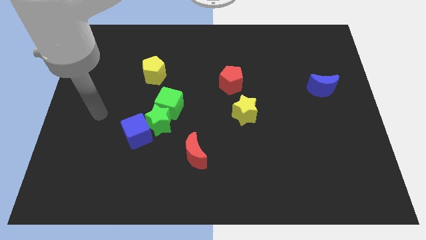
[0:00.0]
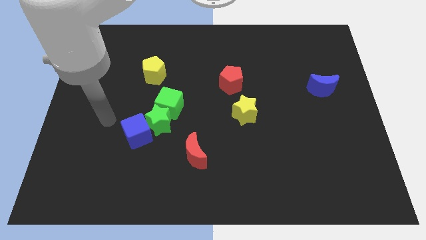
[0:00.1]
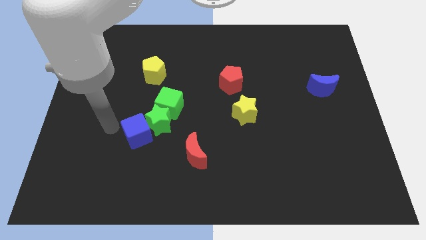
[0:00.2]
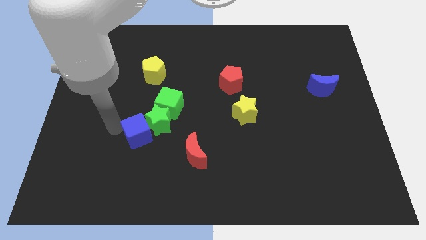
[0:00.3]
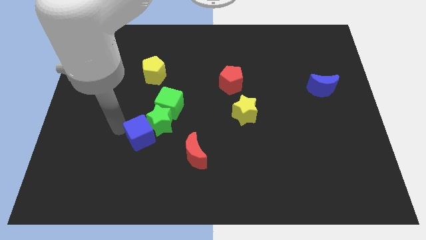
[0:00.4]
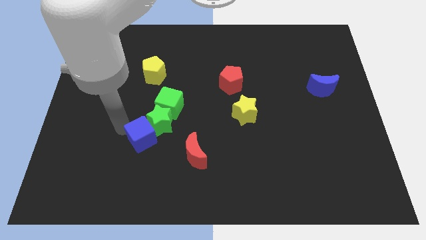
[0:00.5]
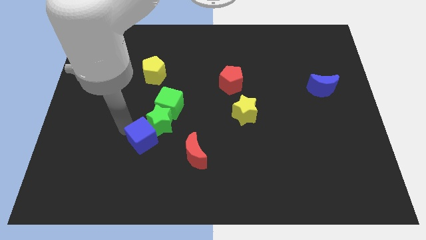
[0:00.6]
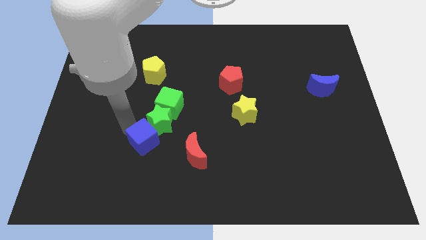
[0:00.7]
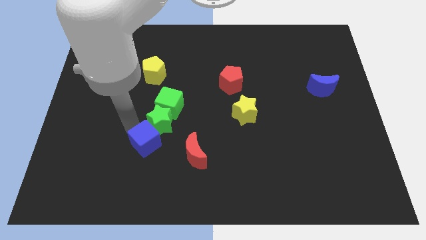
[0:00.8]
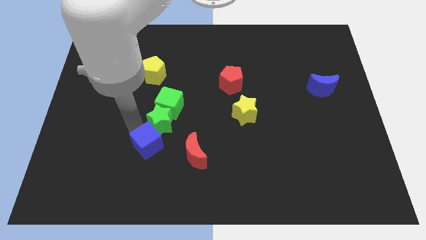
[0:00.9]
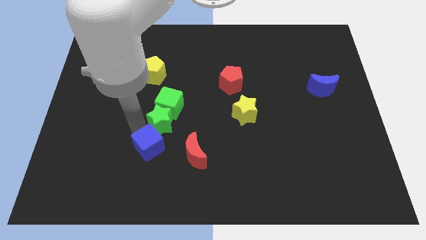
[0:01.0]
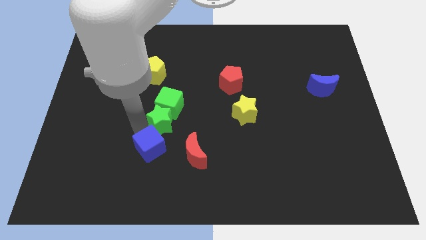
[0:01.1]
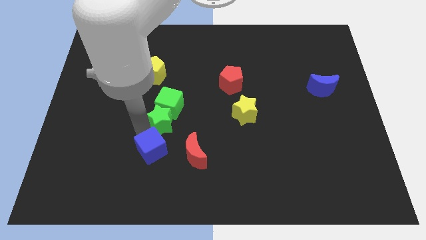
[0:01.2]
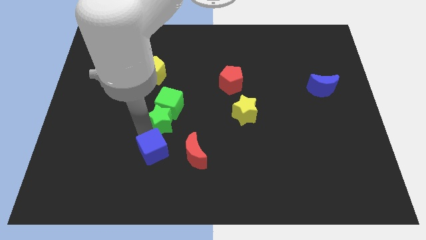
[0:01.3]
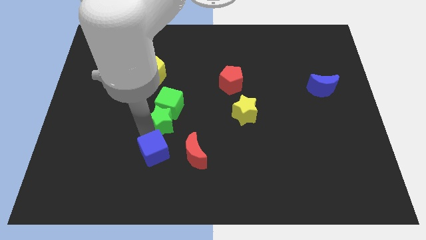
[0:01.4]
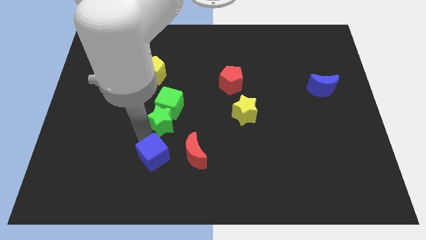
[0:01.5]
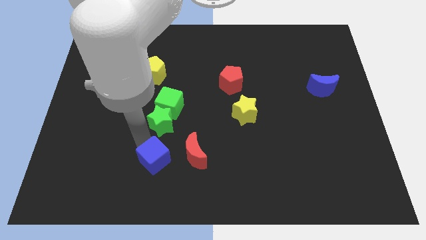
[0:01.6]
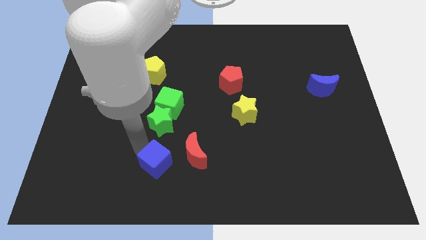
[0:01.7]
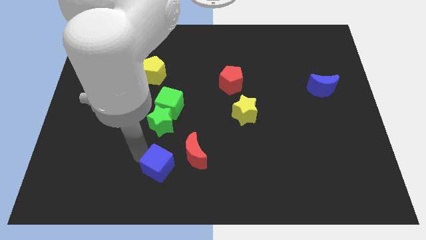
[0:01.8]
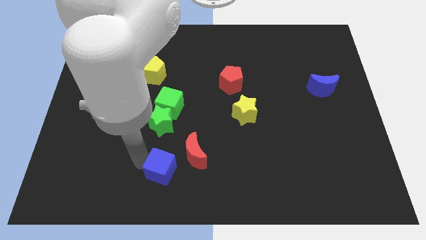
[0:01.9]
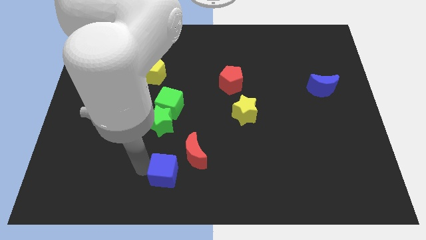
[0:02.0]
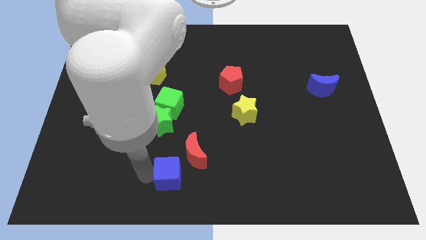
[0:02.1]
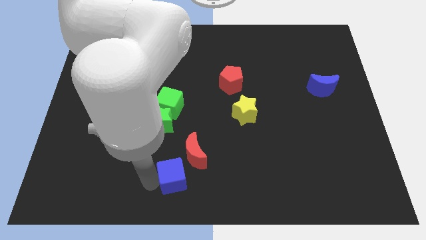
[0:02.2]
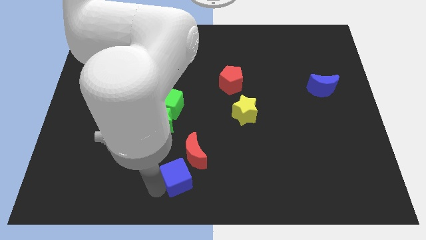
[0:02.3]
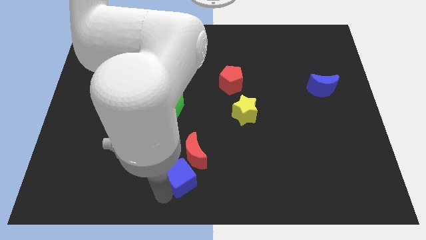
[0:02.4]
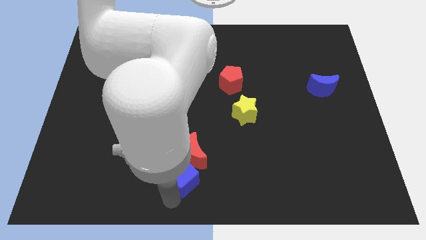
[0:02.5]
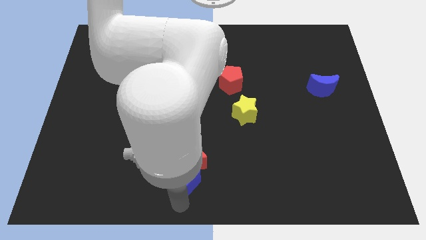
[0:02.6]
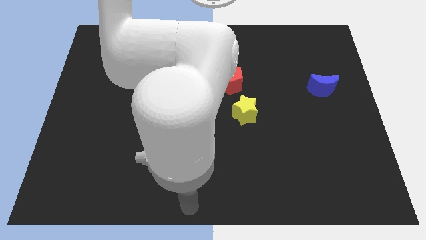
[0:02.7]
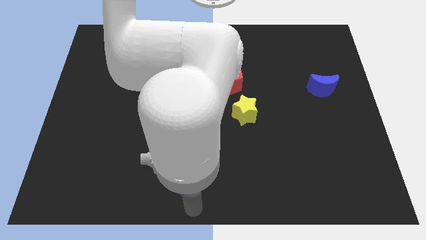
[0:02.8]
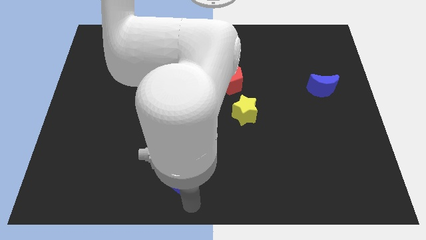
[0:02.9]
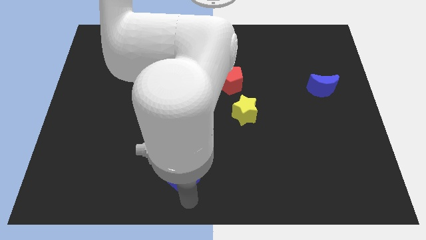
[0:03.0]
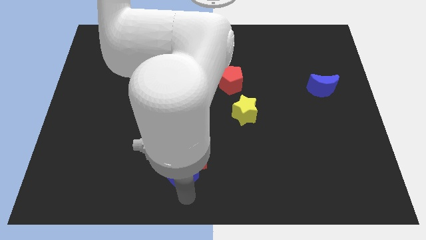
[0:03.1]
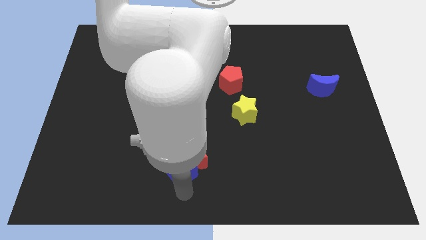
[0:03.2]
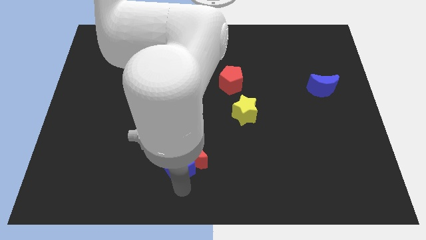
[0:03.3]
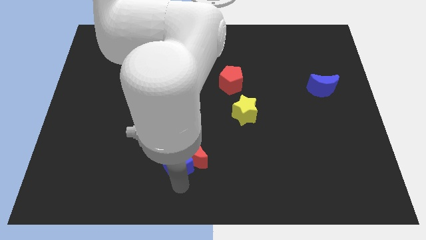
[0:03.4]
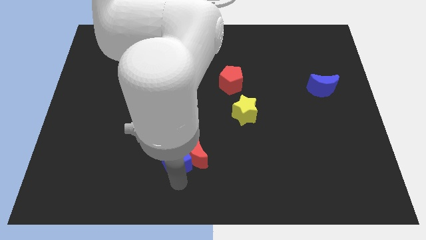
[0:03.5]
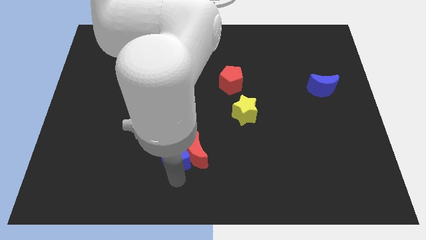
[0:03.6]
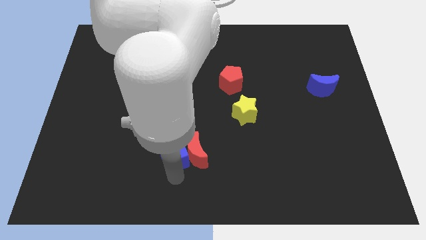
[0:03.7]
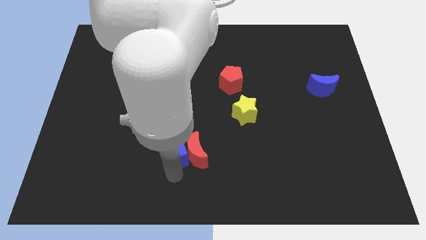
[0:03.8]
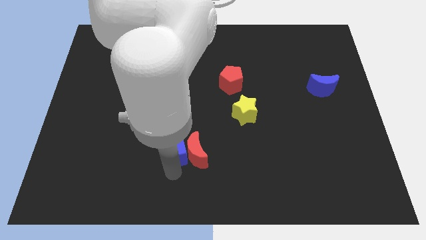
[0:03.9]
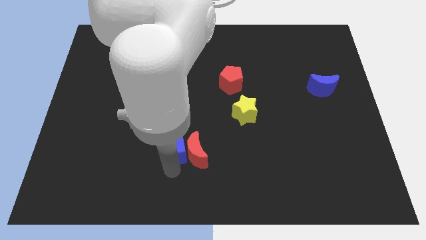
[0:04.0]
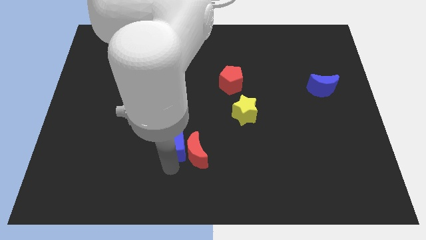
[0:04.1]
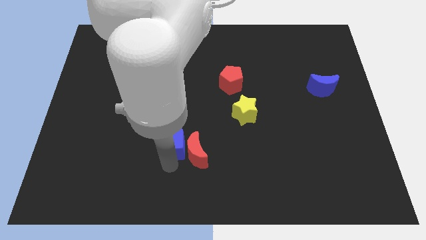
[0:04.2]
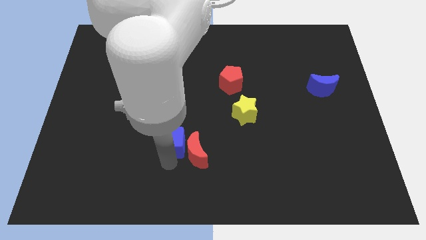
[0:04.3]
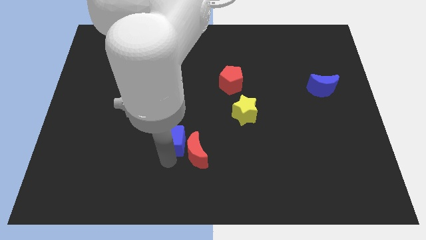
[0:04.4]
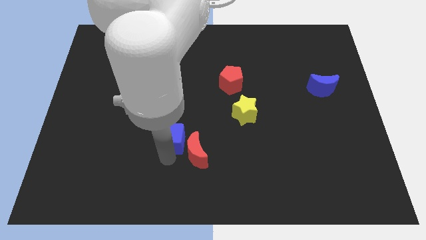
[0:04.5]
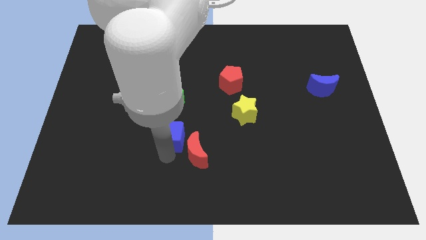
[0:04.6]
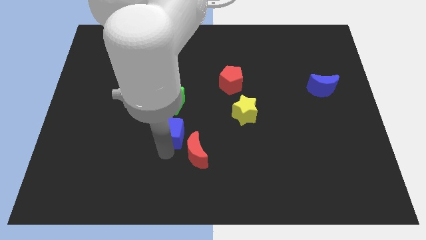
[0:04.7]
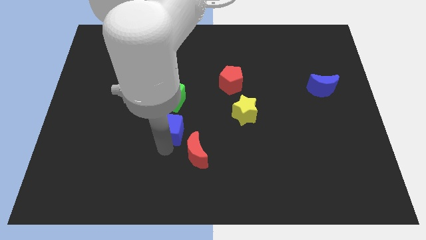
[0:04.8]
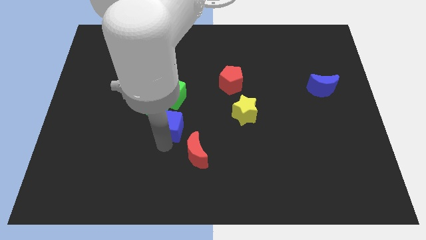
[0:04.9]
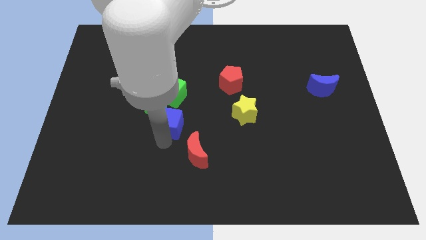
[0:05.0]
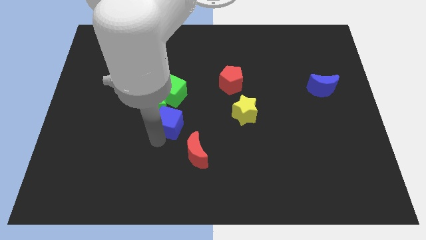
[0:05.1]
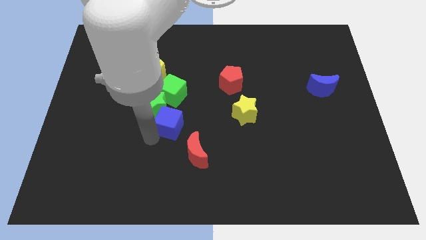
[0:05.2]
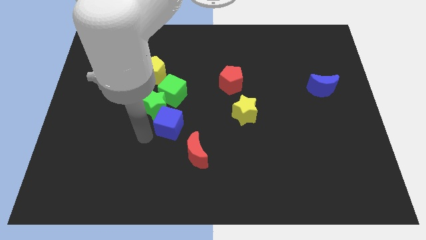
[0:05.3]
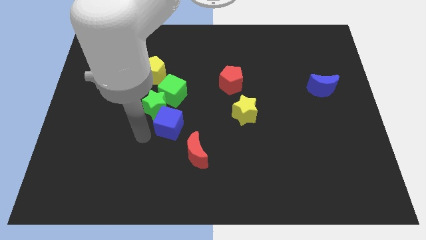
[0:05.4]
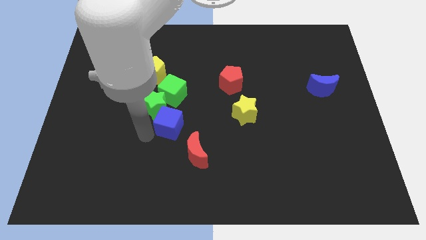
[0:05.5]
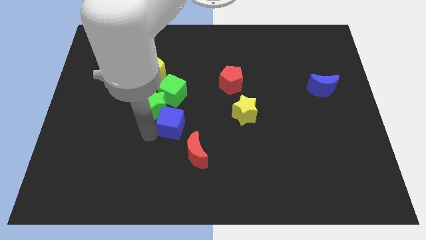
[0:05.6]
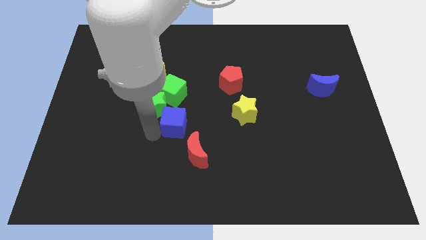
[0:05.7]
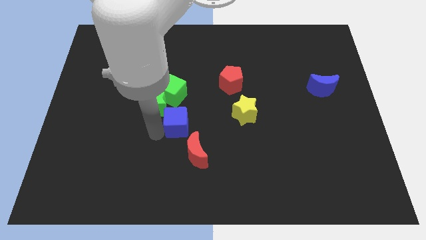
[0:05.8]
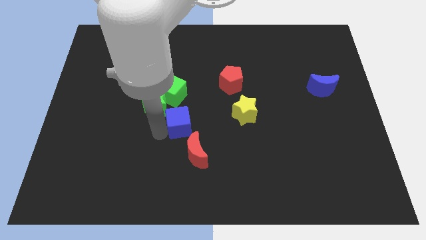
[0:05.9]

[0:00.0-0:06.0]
move the blue cube left of the yellow star

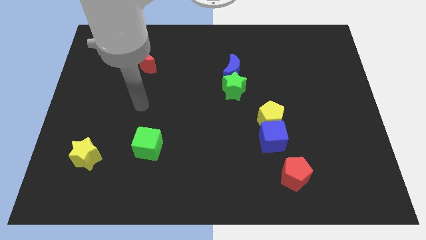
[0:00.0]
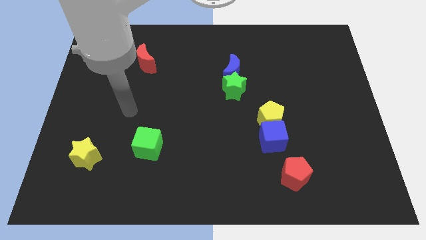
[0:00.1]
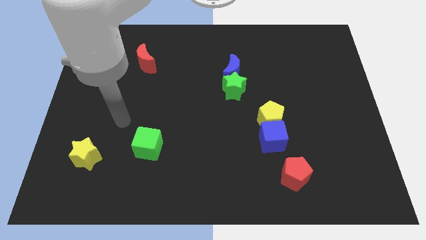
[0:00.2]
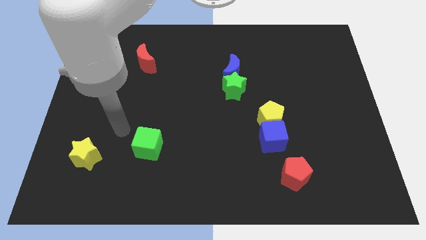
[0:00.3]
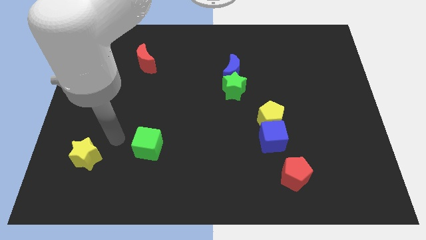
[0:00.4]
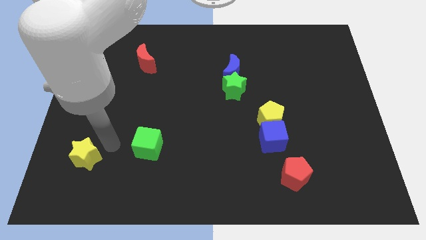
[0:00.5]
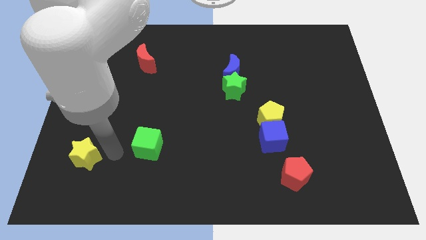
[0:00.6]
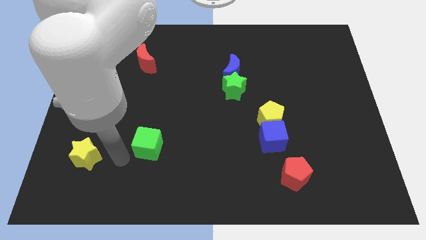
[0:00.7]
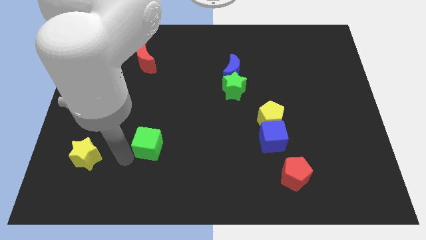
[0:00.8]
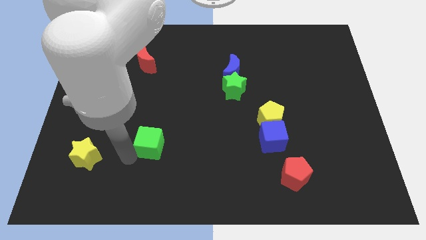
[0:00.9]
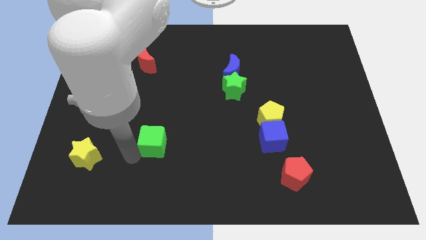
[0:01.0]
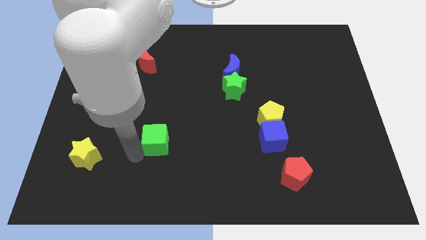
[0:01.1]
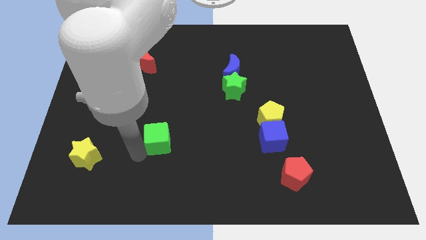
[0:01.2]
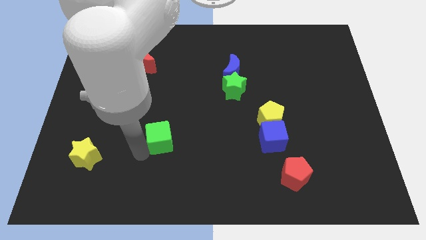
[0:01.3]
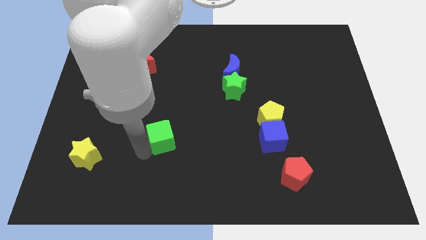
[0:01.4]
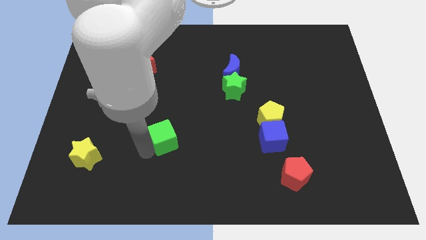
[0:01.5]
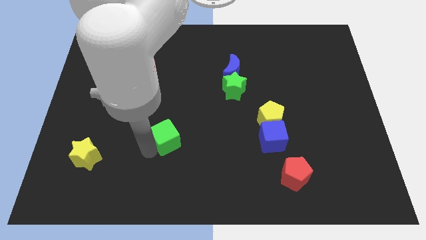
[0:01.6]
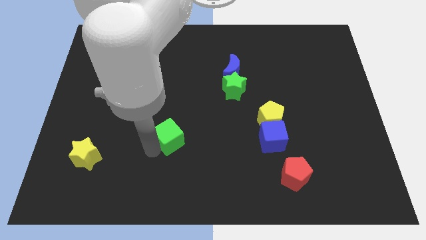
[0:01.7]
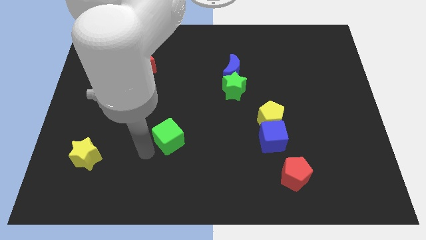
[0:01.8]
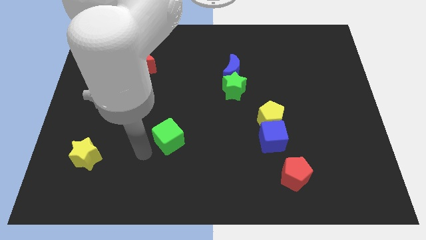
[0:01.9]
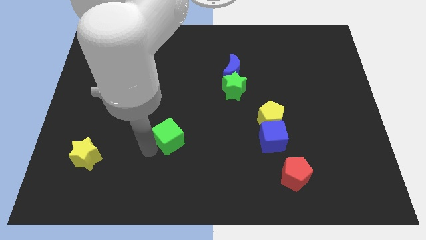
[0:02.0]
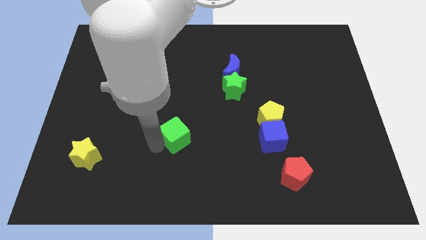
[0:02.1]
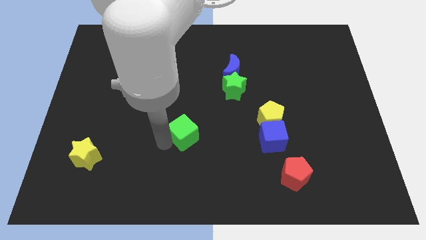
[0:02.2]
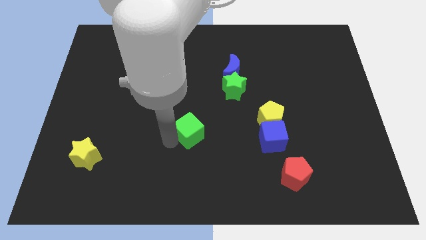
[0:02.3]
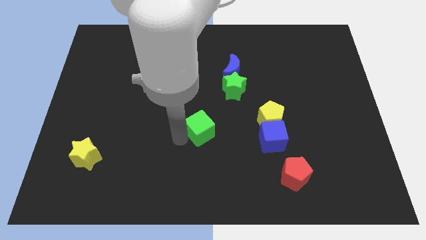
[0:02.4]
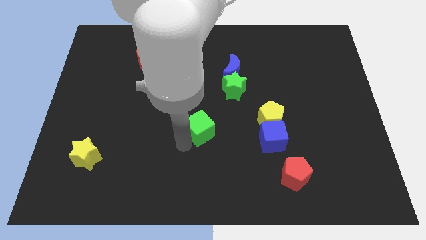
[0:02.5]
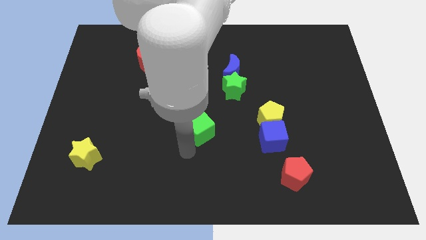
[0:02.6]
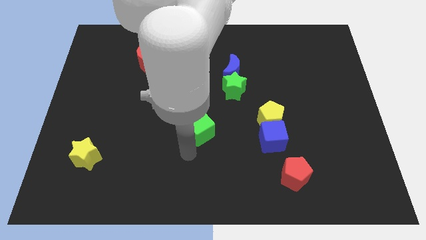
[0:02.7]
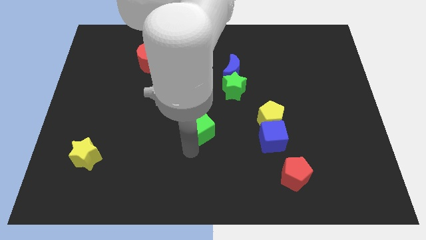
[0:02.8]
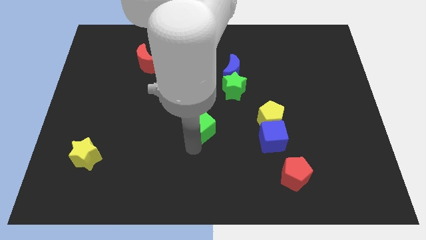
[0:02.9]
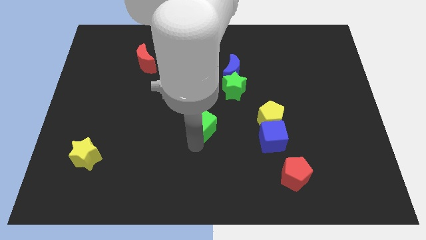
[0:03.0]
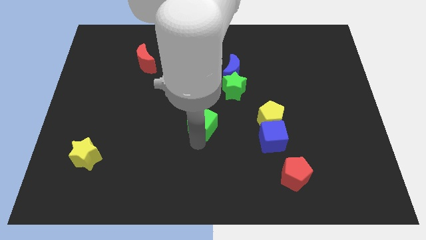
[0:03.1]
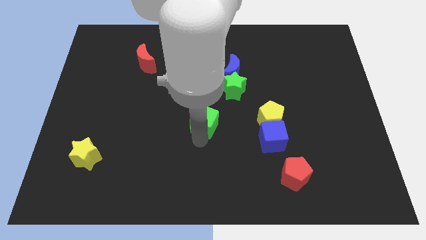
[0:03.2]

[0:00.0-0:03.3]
slide the green cube to the bottom left side of the green star
